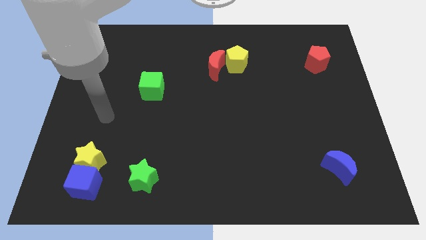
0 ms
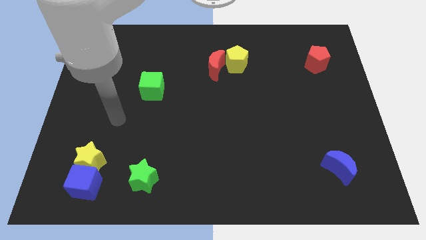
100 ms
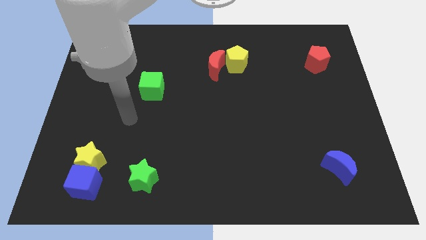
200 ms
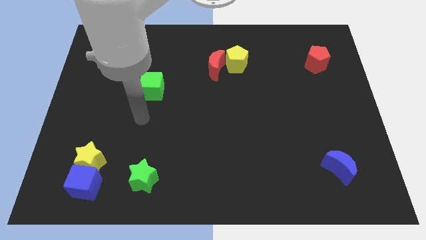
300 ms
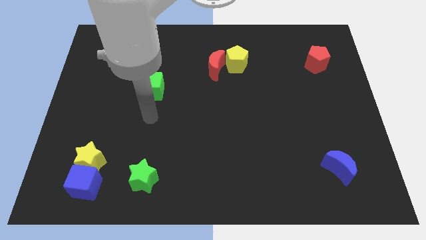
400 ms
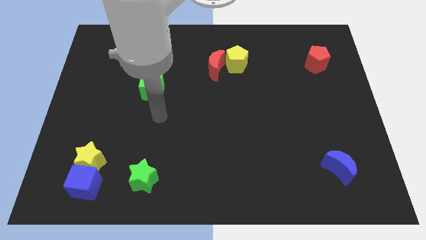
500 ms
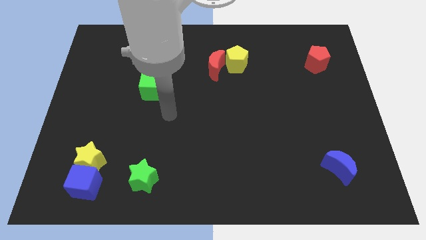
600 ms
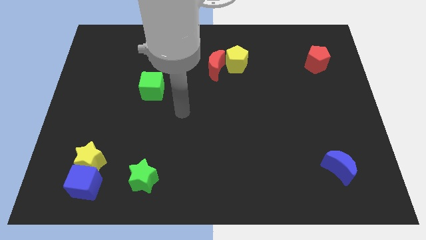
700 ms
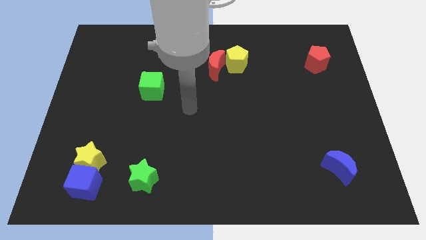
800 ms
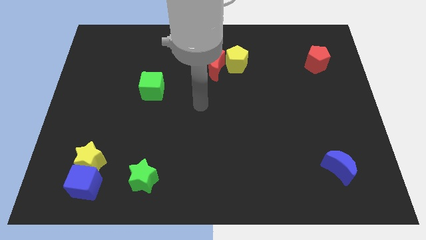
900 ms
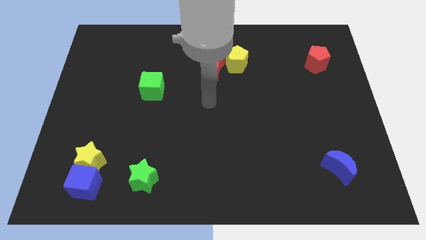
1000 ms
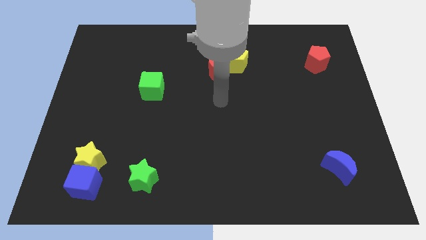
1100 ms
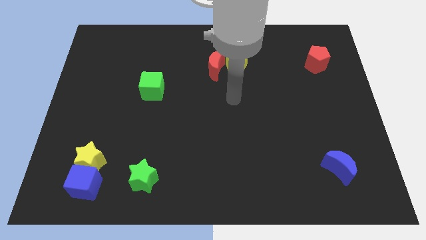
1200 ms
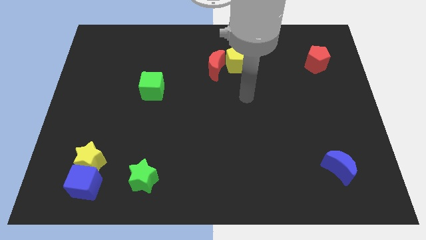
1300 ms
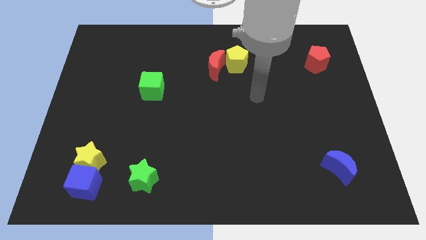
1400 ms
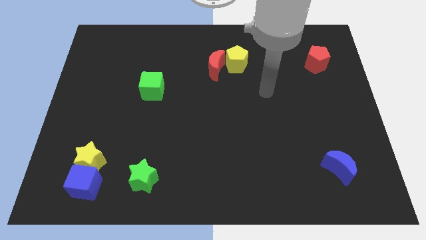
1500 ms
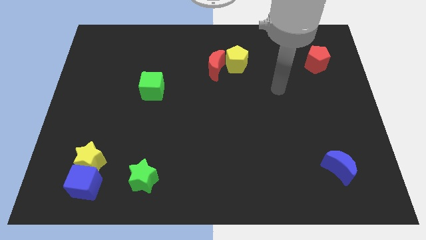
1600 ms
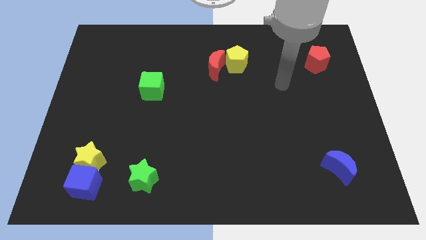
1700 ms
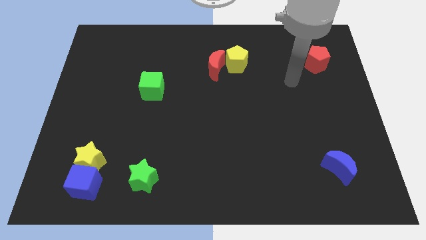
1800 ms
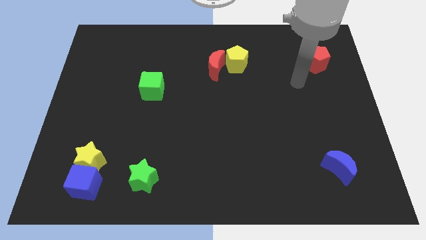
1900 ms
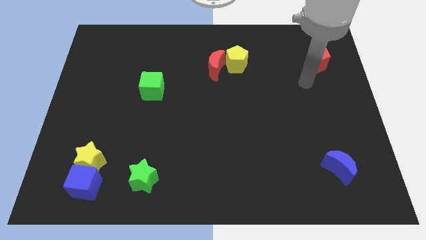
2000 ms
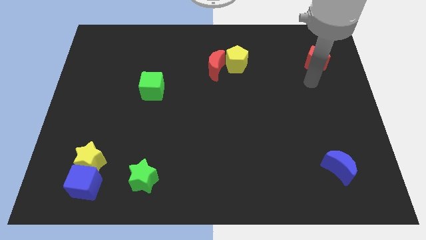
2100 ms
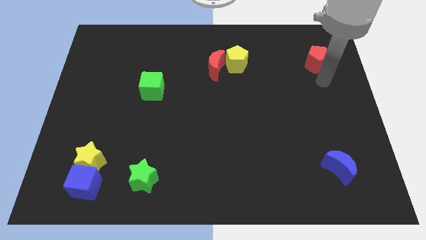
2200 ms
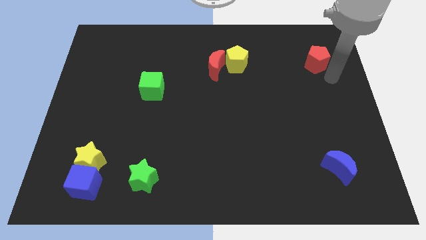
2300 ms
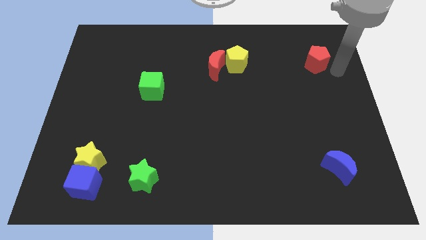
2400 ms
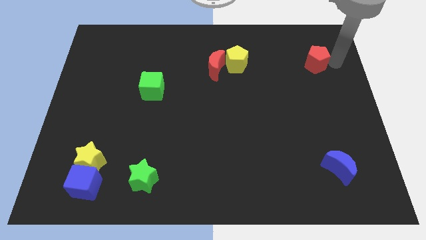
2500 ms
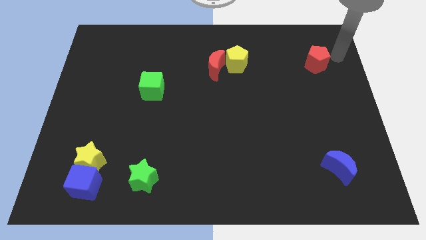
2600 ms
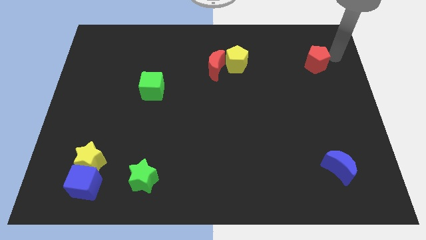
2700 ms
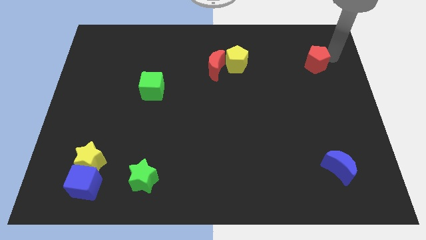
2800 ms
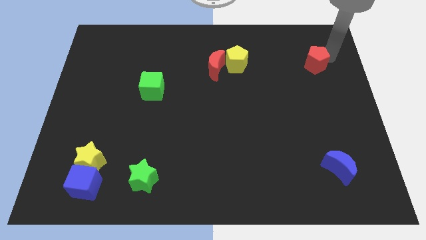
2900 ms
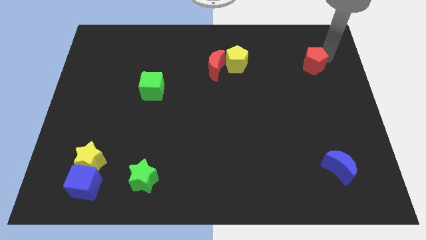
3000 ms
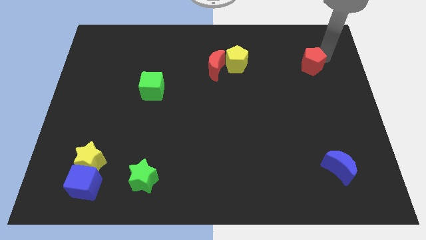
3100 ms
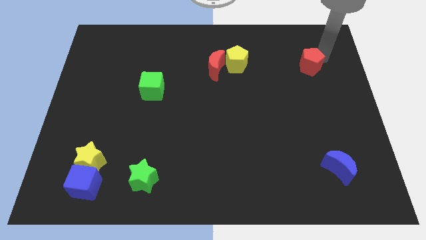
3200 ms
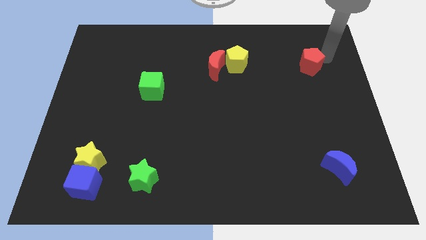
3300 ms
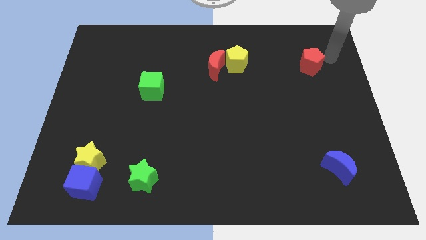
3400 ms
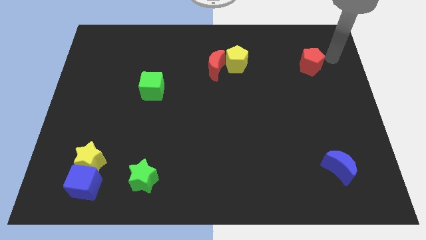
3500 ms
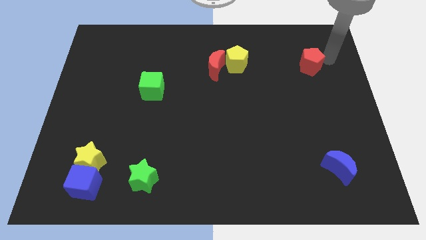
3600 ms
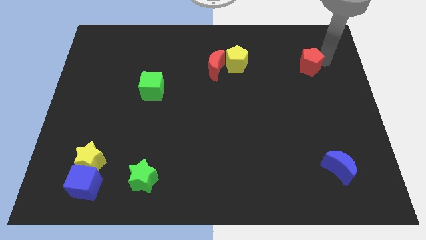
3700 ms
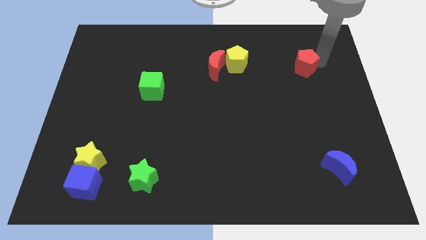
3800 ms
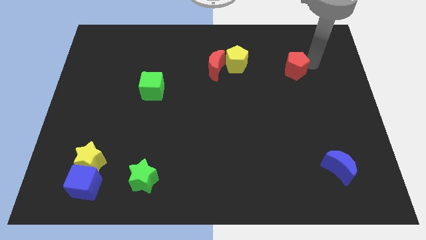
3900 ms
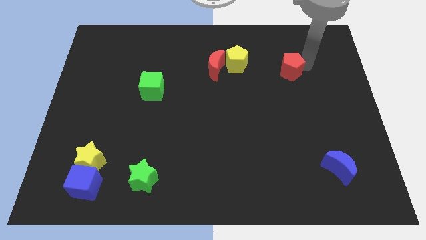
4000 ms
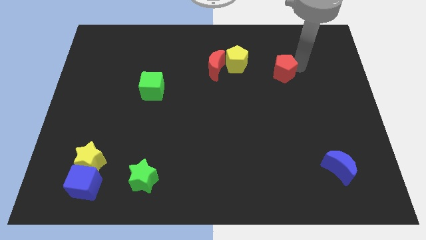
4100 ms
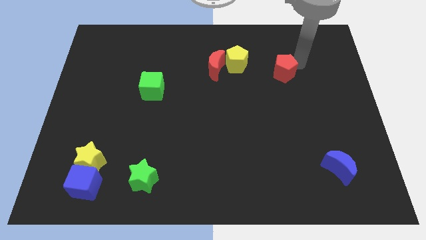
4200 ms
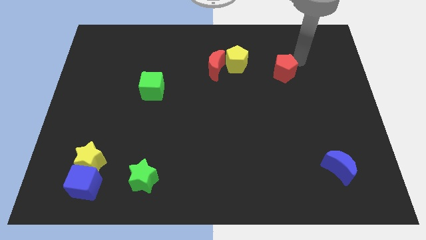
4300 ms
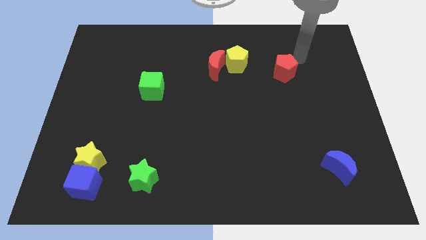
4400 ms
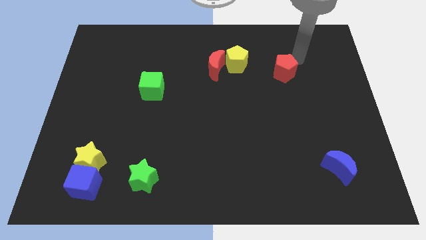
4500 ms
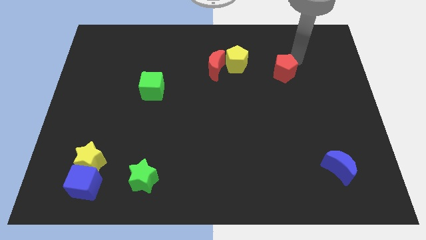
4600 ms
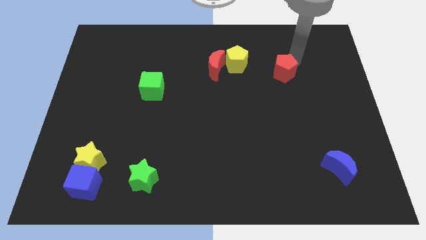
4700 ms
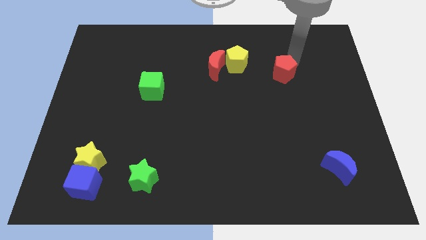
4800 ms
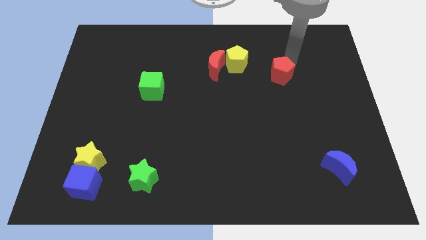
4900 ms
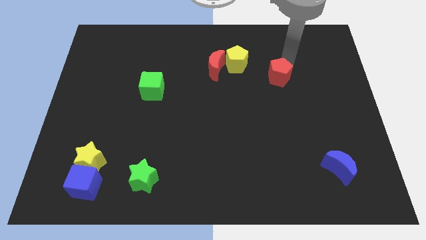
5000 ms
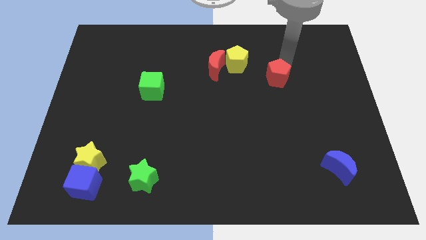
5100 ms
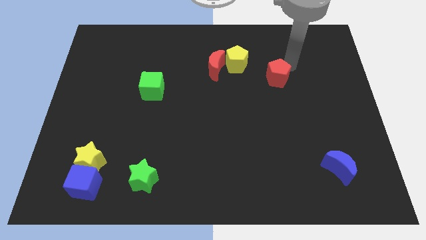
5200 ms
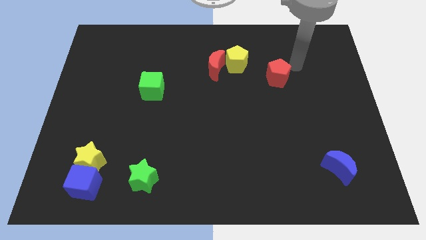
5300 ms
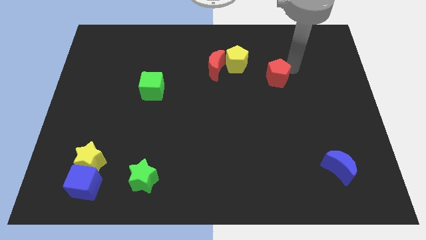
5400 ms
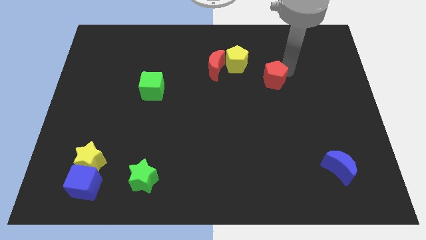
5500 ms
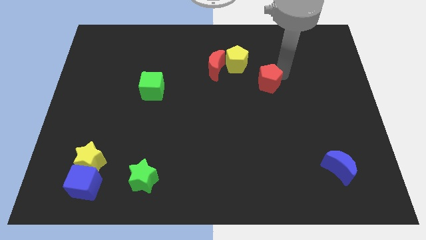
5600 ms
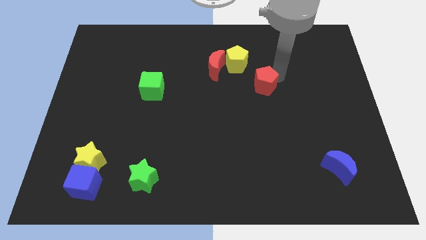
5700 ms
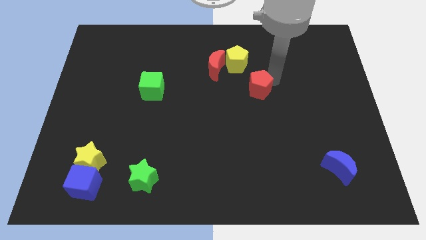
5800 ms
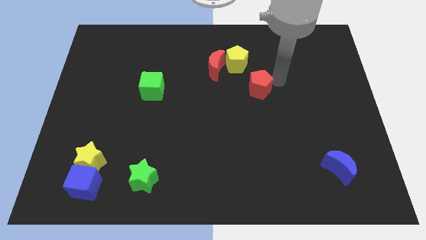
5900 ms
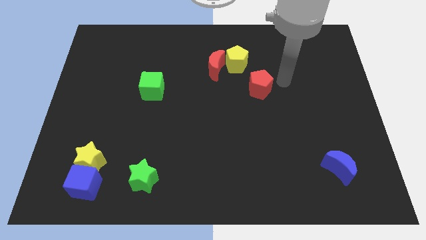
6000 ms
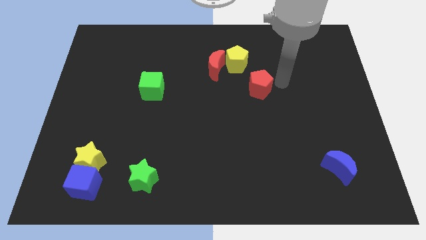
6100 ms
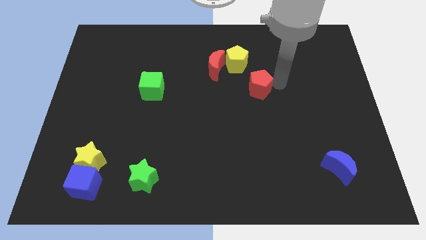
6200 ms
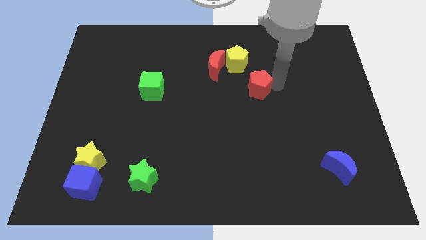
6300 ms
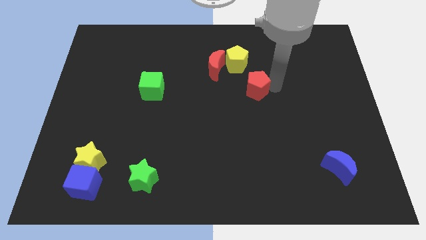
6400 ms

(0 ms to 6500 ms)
put the red pentagon to the bottom side of the yellow pentagon
